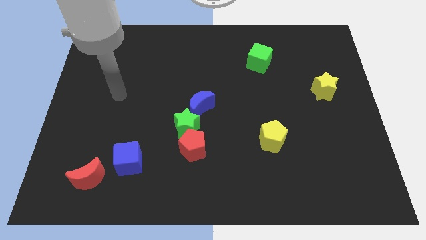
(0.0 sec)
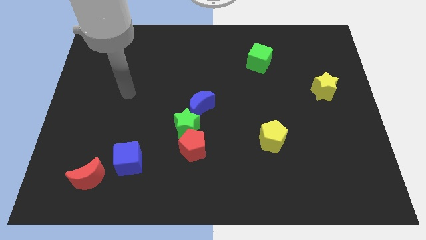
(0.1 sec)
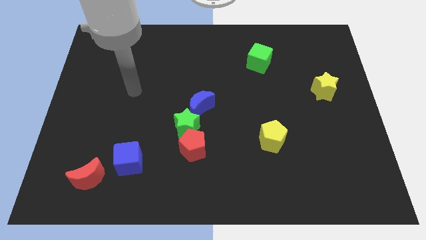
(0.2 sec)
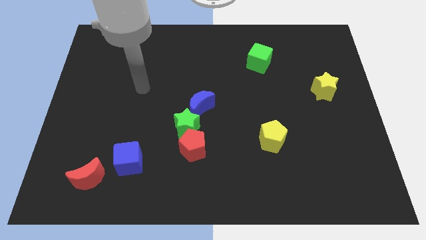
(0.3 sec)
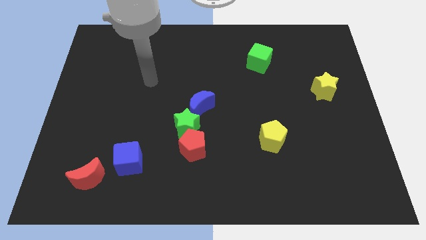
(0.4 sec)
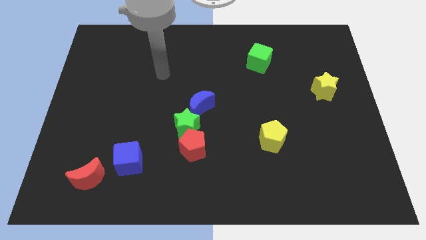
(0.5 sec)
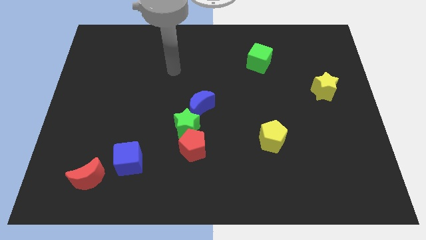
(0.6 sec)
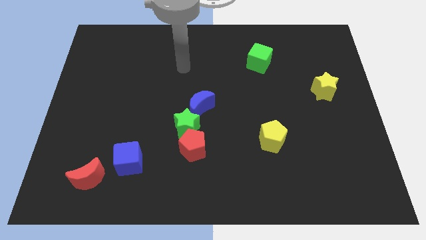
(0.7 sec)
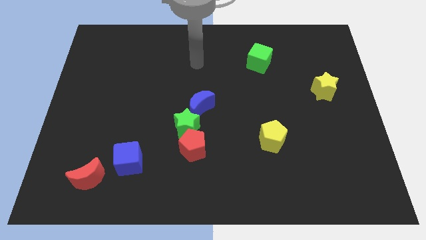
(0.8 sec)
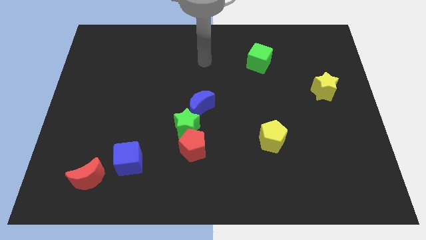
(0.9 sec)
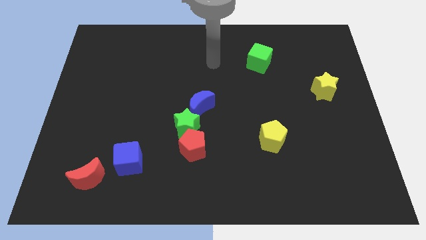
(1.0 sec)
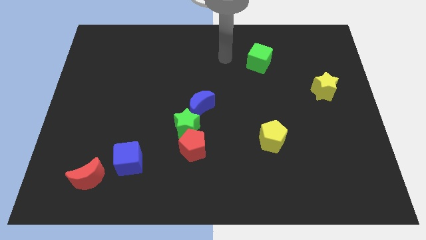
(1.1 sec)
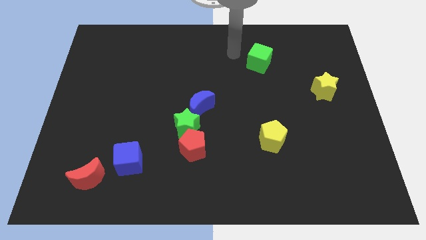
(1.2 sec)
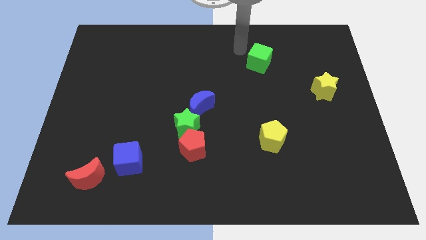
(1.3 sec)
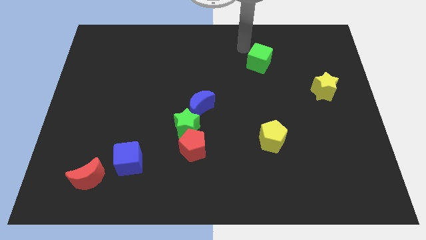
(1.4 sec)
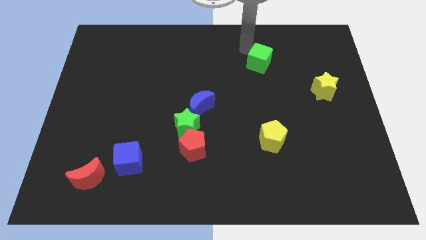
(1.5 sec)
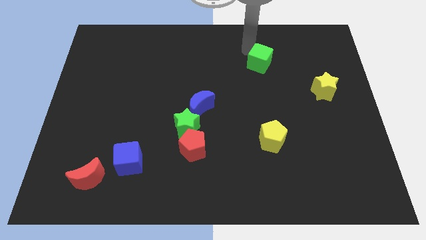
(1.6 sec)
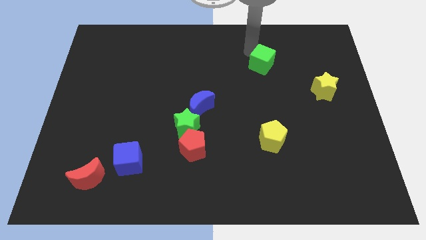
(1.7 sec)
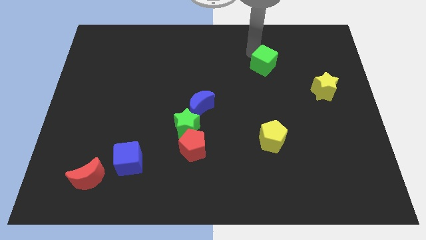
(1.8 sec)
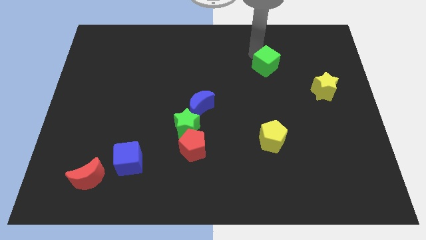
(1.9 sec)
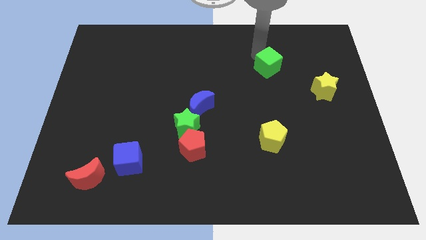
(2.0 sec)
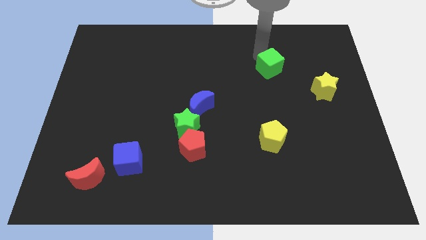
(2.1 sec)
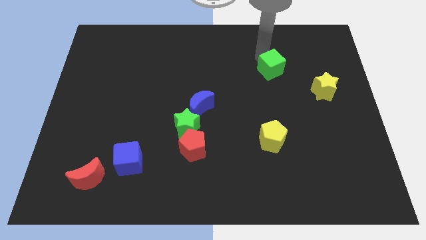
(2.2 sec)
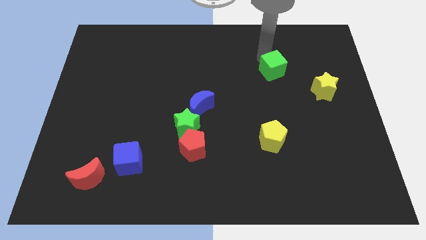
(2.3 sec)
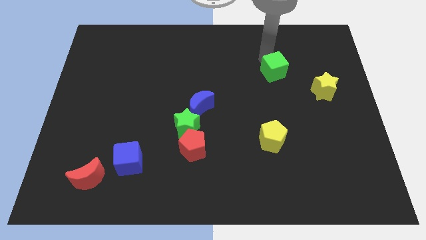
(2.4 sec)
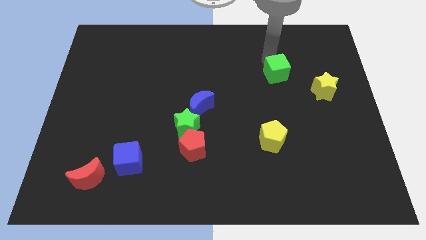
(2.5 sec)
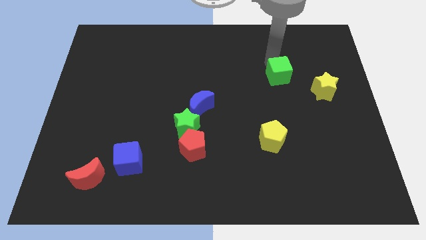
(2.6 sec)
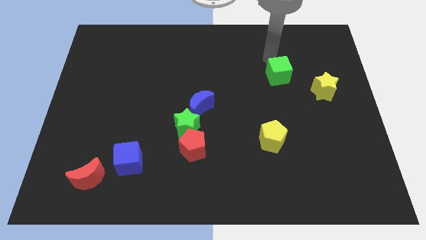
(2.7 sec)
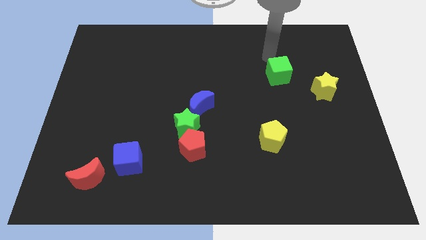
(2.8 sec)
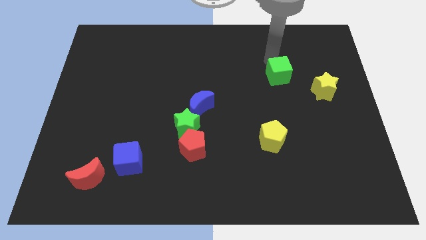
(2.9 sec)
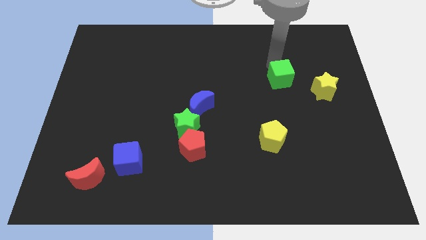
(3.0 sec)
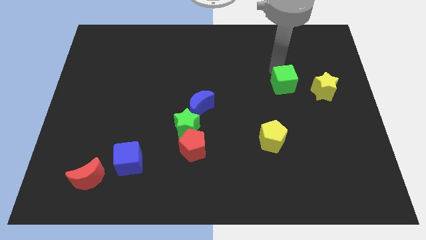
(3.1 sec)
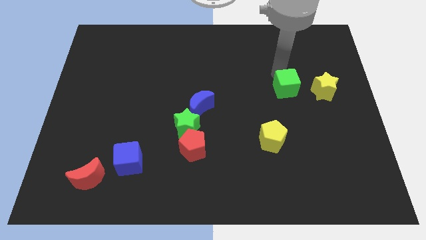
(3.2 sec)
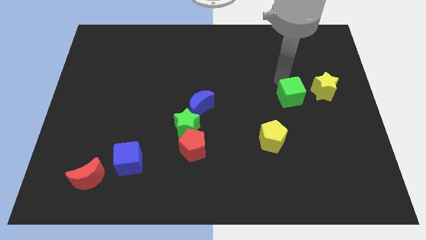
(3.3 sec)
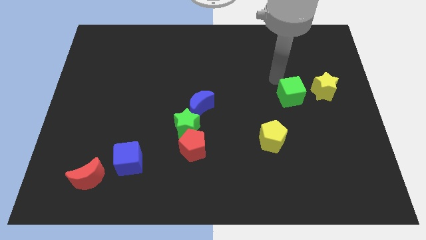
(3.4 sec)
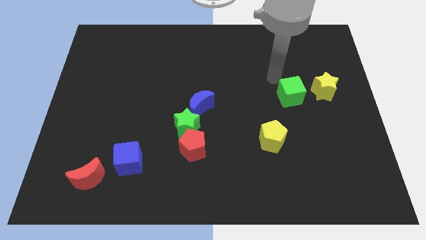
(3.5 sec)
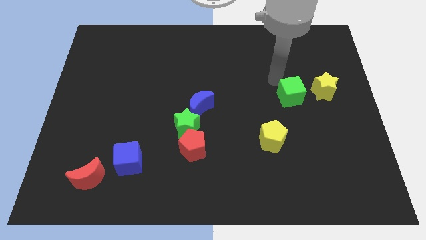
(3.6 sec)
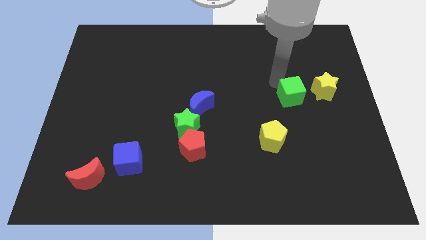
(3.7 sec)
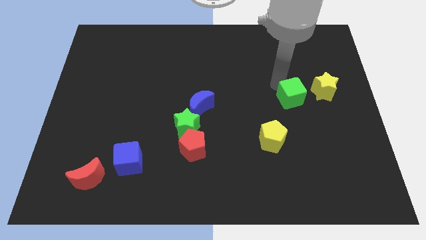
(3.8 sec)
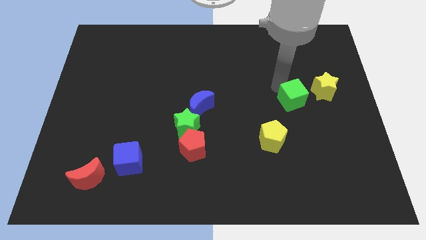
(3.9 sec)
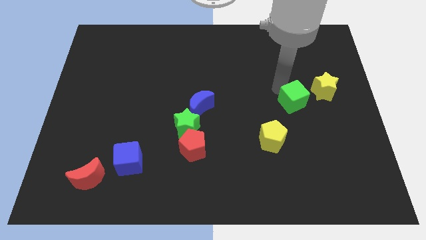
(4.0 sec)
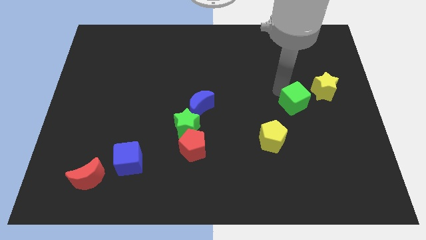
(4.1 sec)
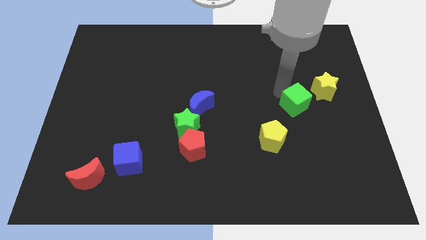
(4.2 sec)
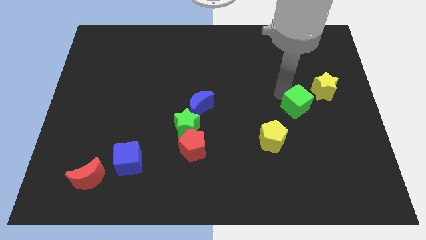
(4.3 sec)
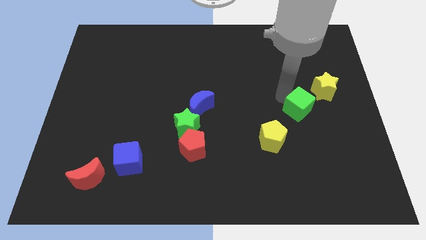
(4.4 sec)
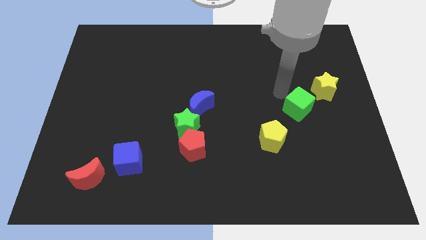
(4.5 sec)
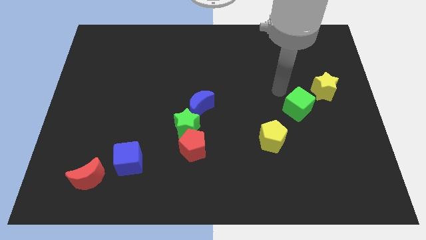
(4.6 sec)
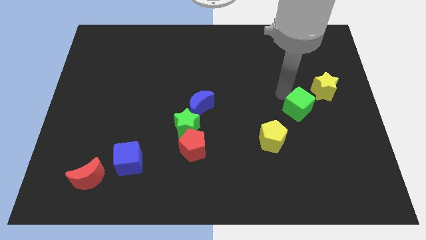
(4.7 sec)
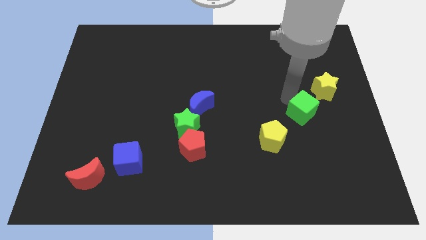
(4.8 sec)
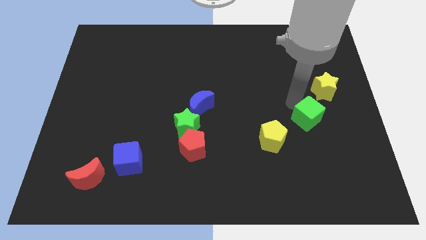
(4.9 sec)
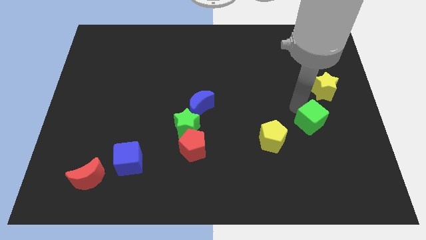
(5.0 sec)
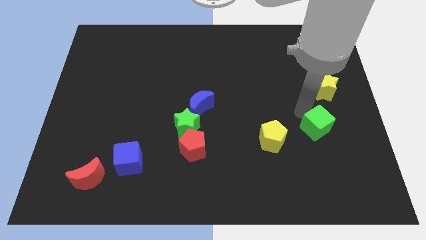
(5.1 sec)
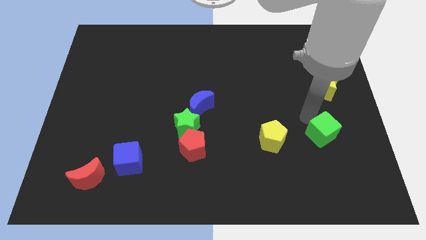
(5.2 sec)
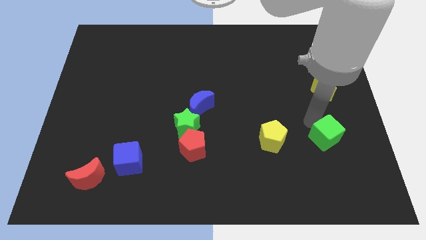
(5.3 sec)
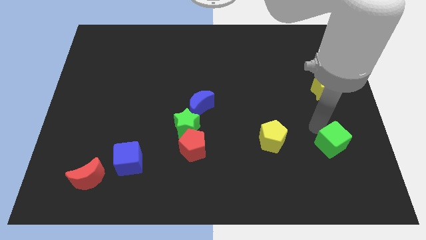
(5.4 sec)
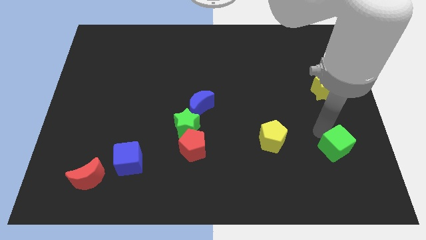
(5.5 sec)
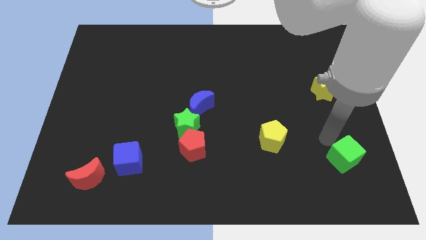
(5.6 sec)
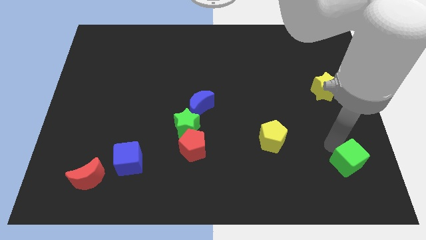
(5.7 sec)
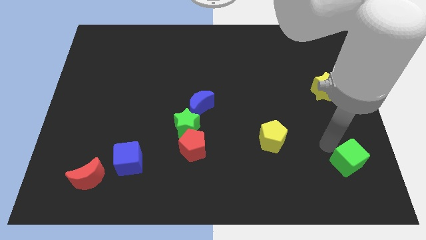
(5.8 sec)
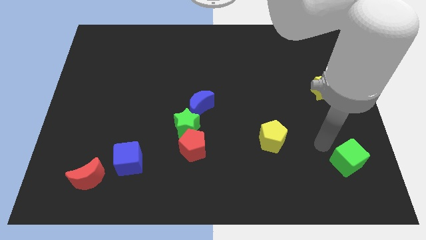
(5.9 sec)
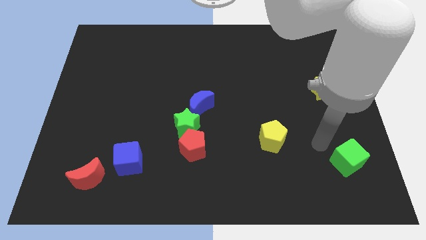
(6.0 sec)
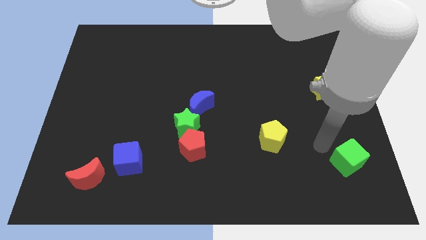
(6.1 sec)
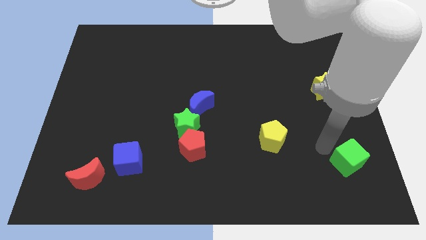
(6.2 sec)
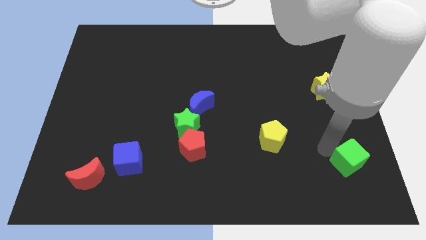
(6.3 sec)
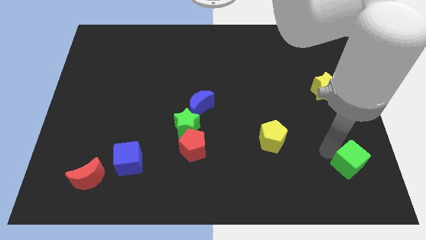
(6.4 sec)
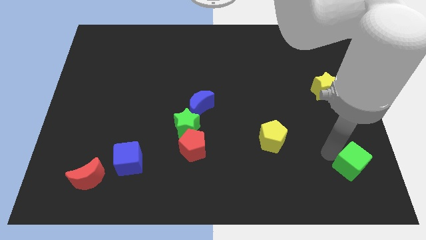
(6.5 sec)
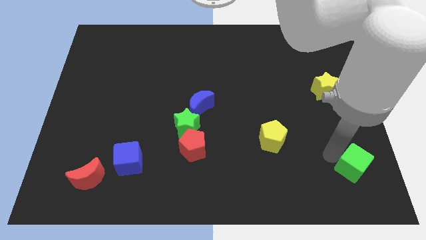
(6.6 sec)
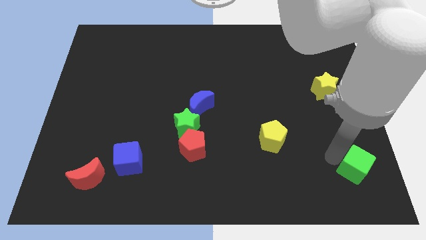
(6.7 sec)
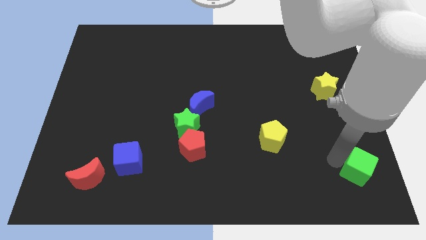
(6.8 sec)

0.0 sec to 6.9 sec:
push the green cube to the bottom right corner
